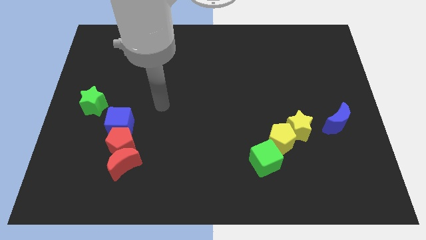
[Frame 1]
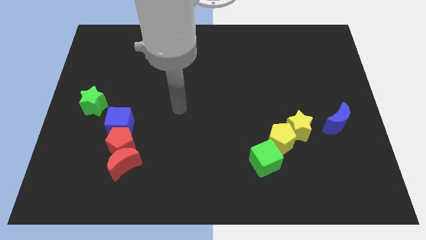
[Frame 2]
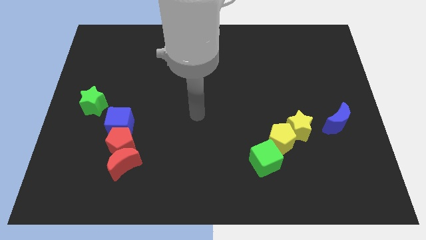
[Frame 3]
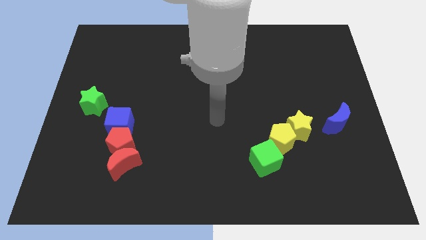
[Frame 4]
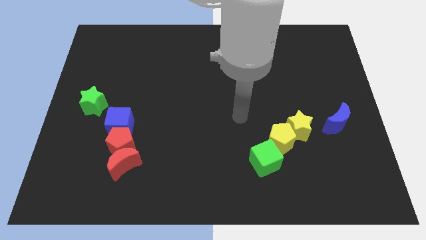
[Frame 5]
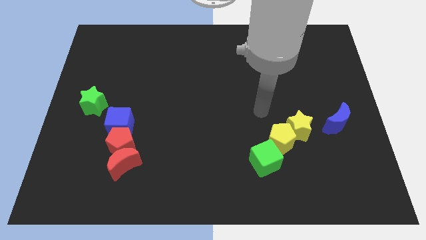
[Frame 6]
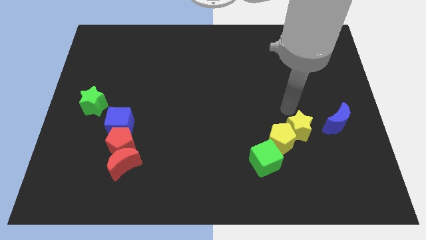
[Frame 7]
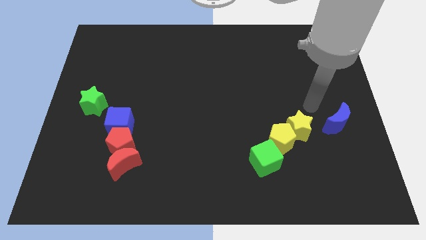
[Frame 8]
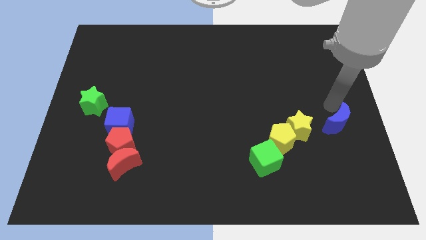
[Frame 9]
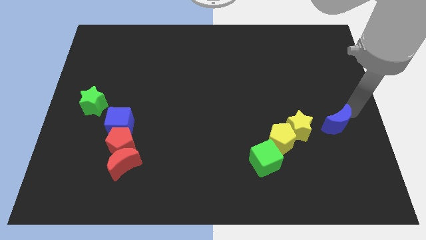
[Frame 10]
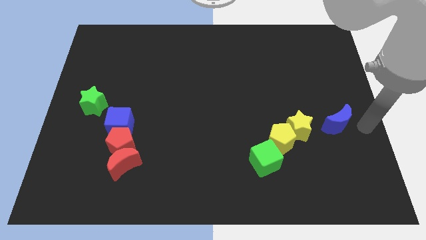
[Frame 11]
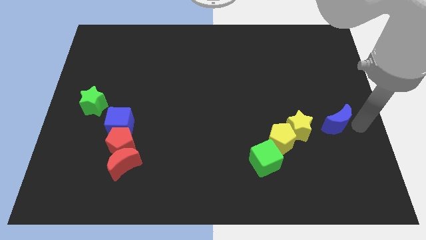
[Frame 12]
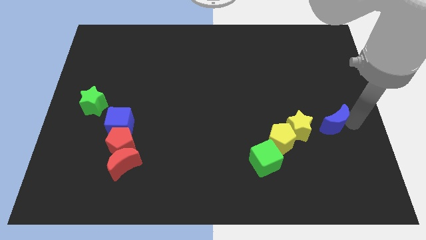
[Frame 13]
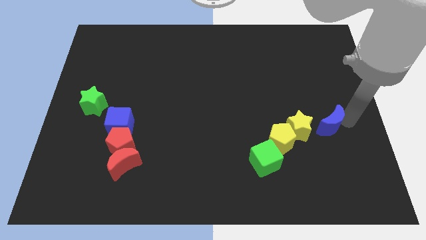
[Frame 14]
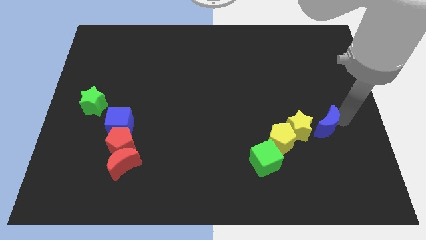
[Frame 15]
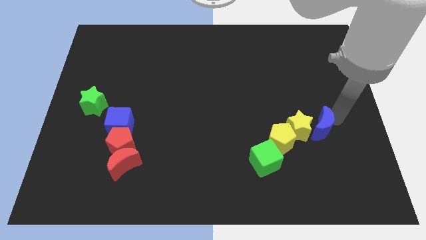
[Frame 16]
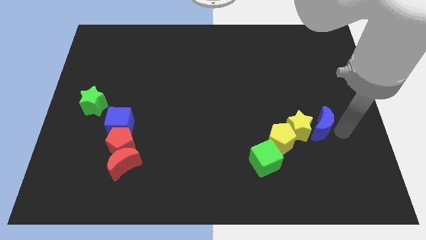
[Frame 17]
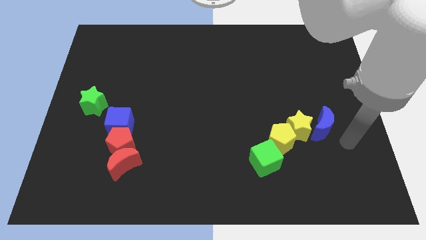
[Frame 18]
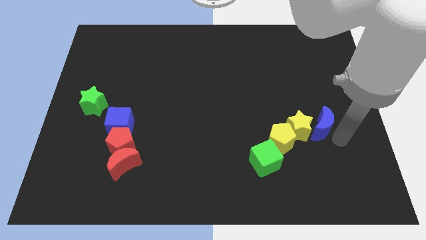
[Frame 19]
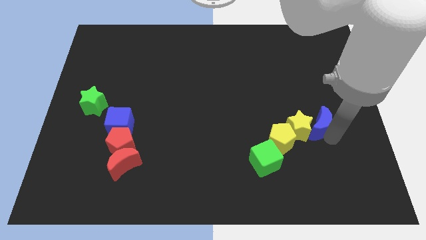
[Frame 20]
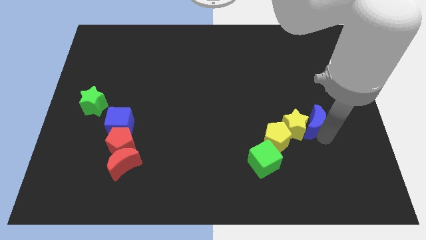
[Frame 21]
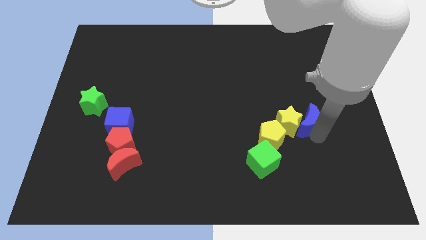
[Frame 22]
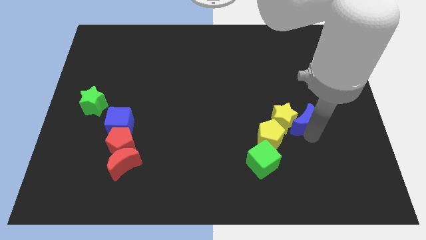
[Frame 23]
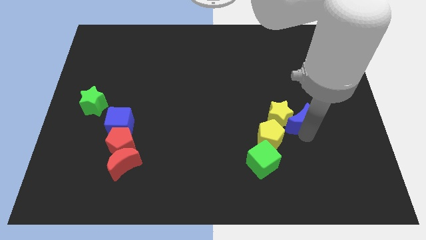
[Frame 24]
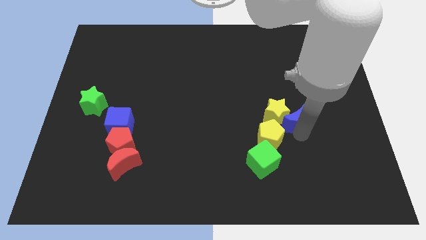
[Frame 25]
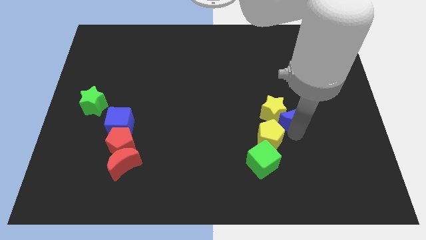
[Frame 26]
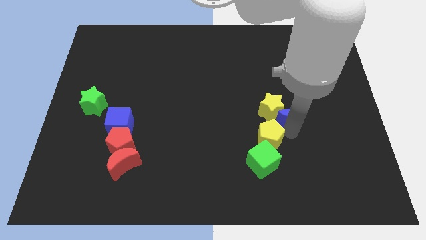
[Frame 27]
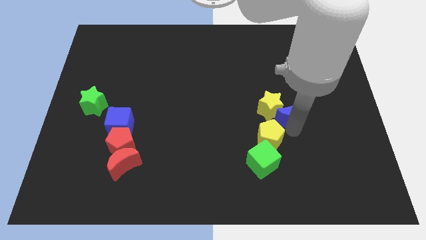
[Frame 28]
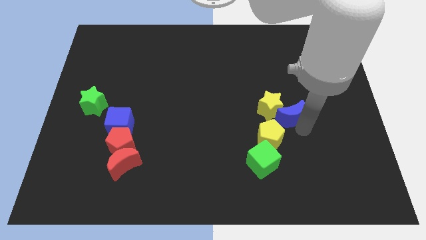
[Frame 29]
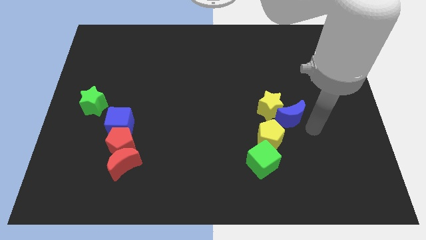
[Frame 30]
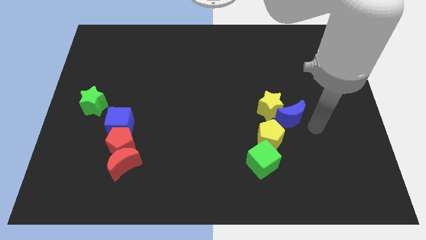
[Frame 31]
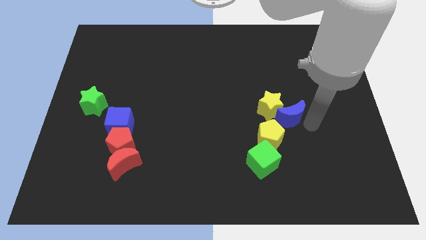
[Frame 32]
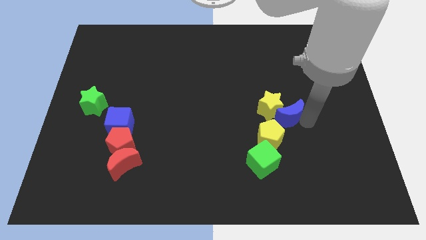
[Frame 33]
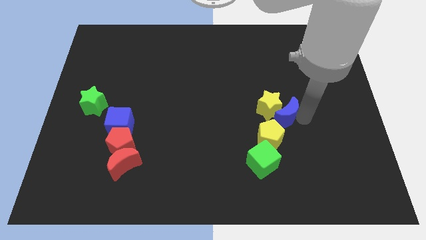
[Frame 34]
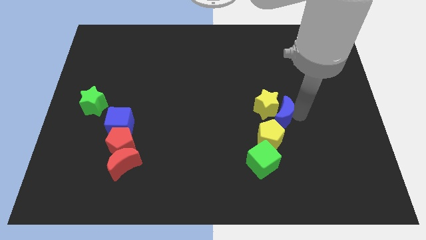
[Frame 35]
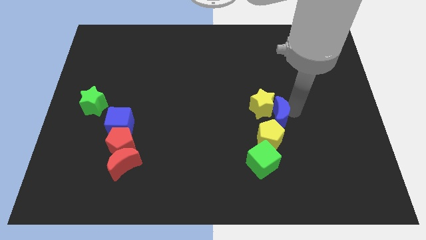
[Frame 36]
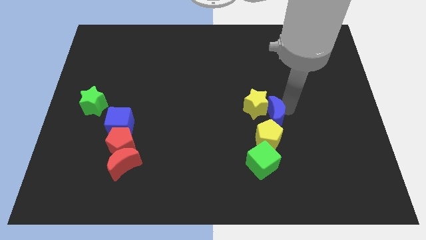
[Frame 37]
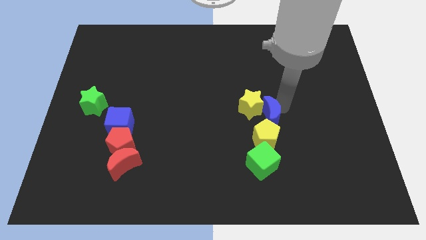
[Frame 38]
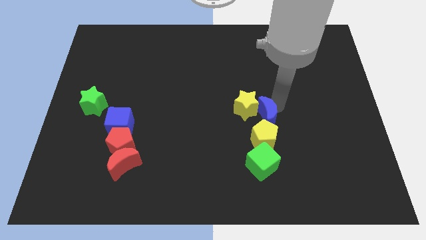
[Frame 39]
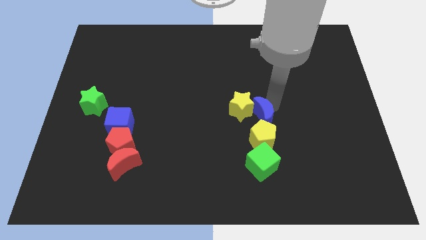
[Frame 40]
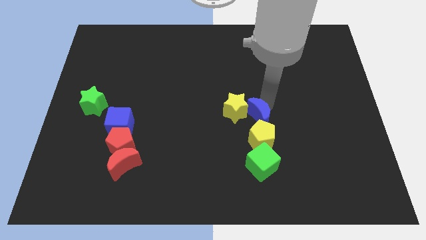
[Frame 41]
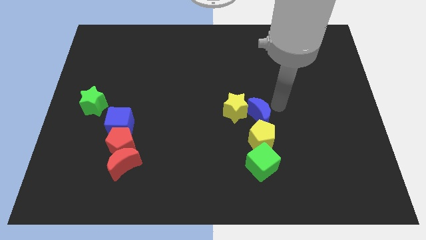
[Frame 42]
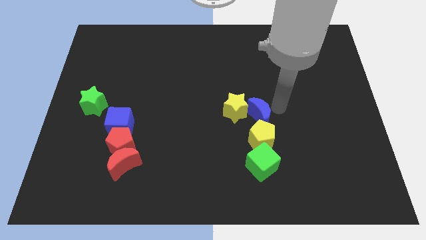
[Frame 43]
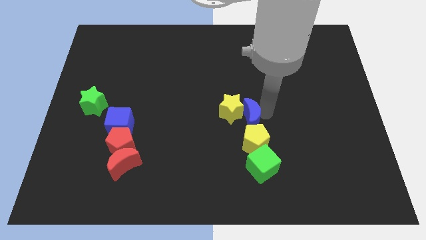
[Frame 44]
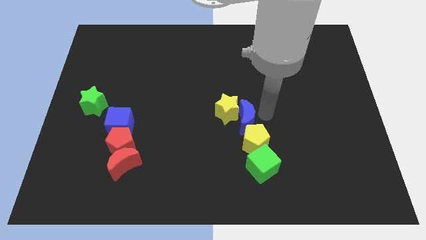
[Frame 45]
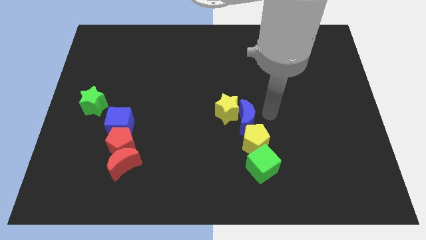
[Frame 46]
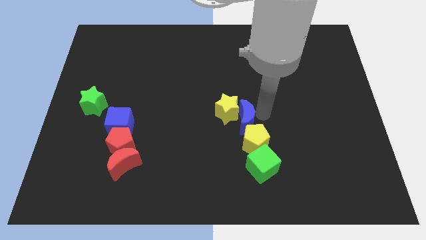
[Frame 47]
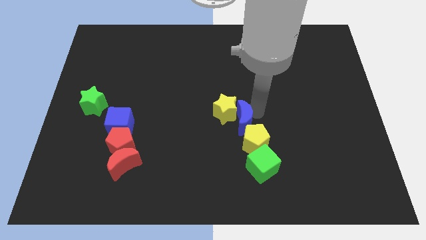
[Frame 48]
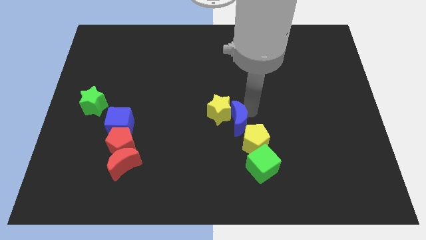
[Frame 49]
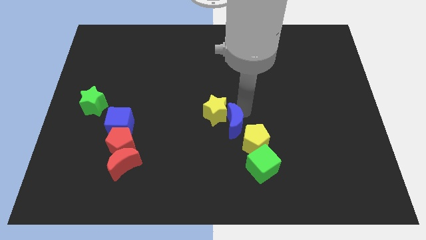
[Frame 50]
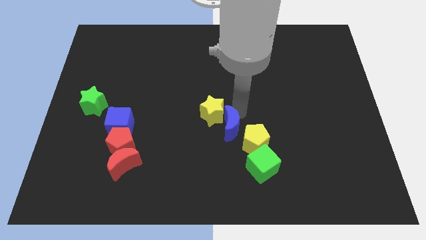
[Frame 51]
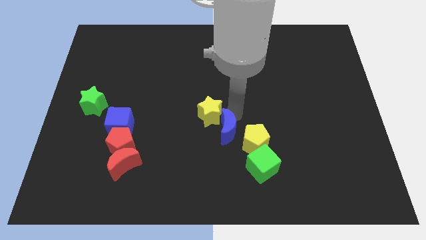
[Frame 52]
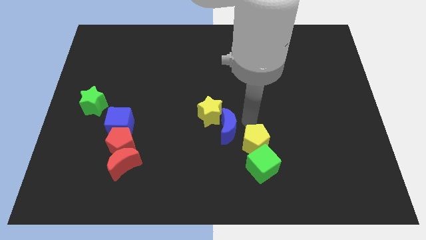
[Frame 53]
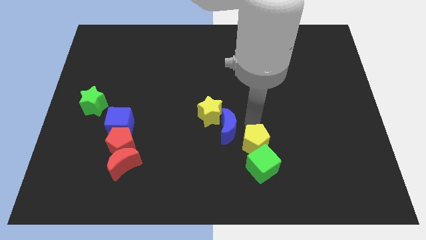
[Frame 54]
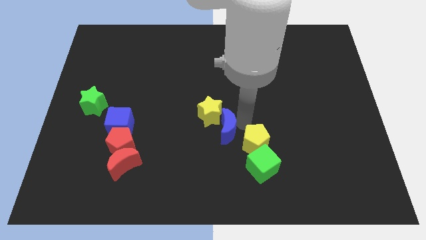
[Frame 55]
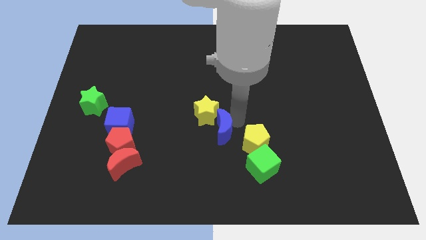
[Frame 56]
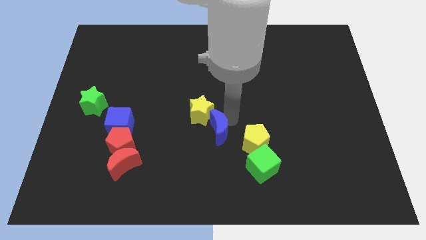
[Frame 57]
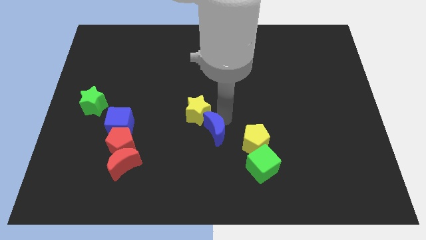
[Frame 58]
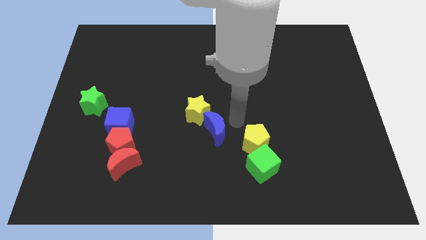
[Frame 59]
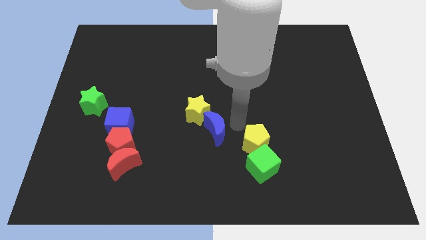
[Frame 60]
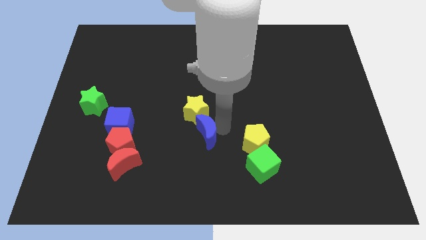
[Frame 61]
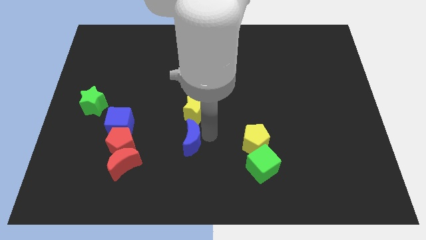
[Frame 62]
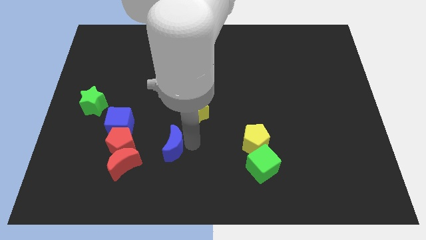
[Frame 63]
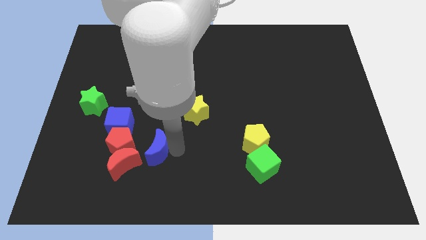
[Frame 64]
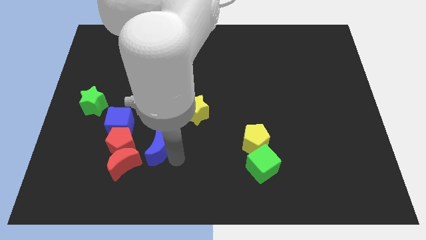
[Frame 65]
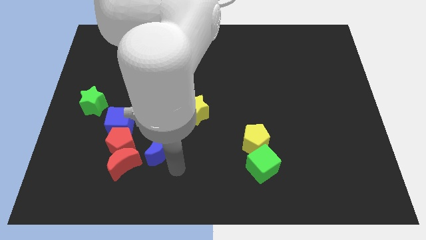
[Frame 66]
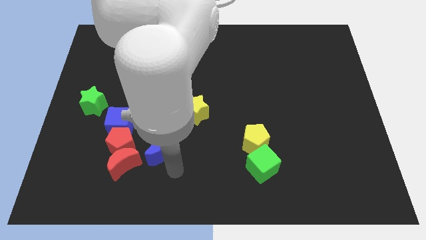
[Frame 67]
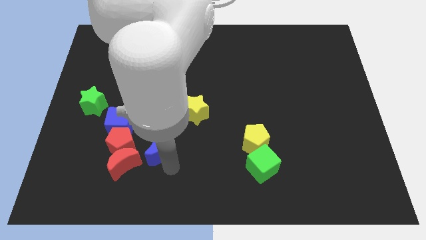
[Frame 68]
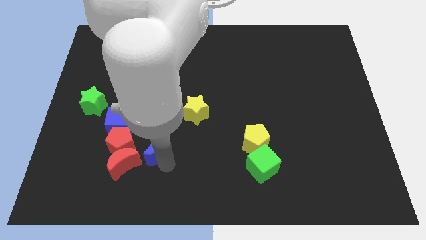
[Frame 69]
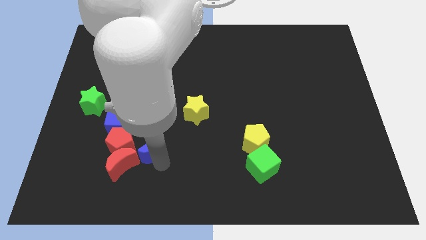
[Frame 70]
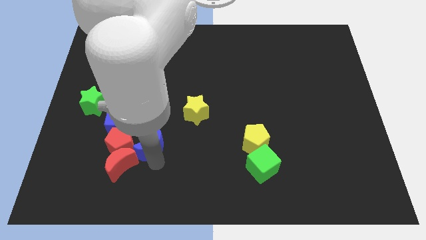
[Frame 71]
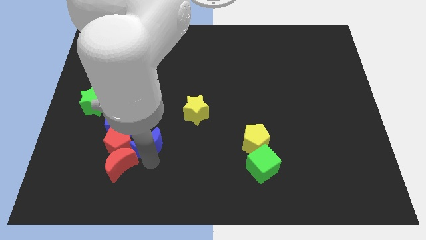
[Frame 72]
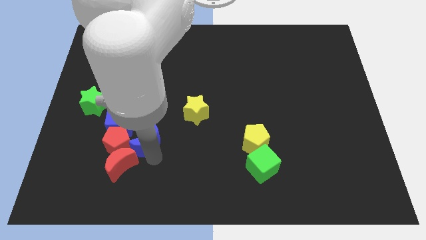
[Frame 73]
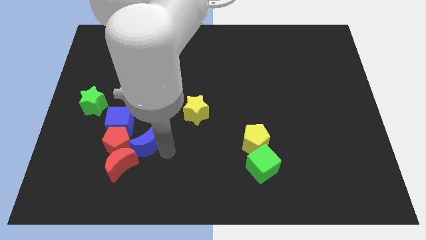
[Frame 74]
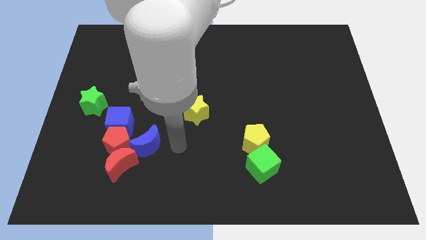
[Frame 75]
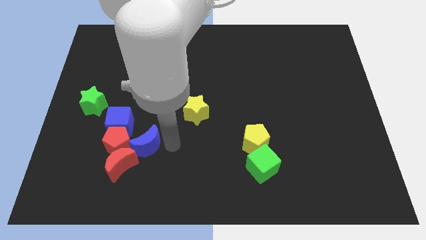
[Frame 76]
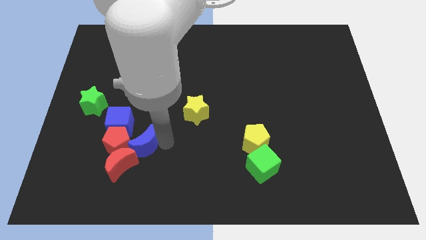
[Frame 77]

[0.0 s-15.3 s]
push the blue moon close to the red pentagon

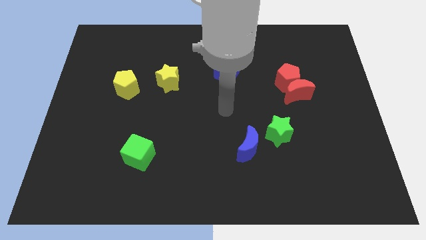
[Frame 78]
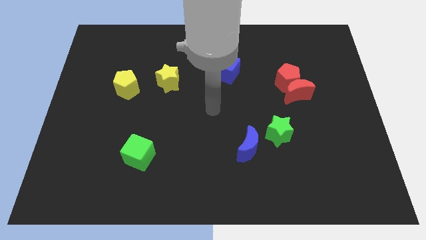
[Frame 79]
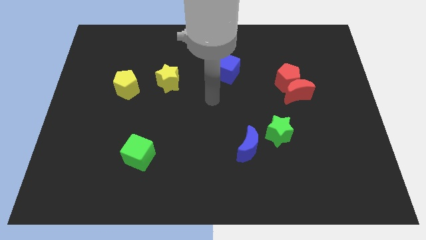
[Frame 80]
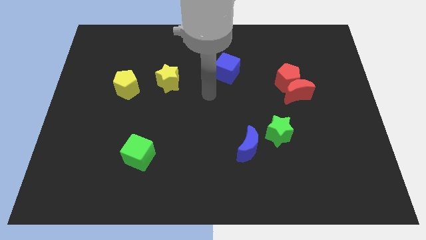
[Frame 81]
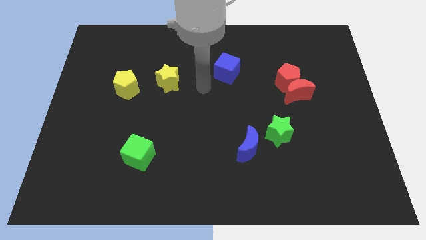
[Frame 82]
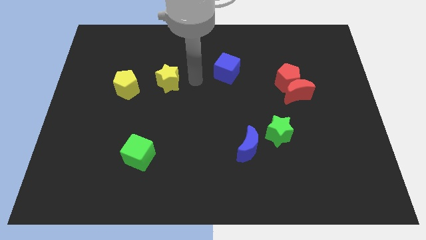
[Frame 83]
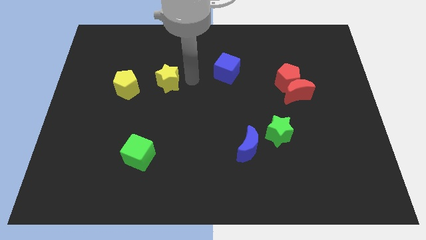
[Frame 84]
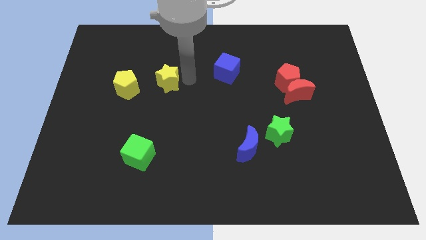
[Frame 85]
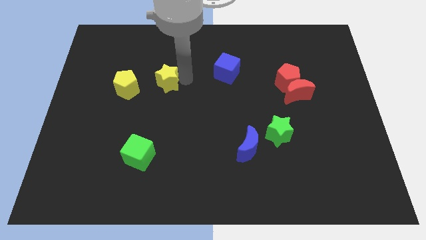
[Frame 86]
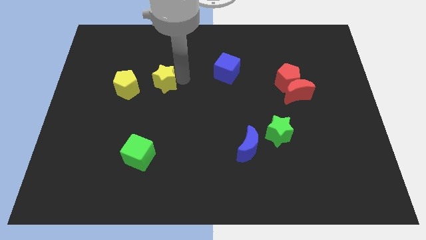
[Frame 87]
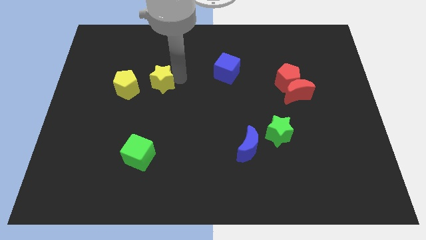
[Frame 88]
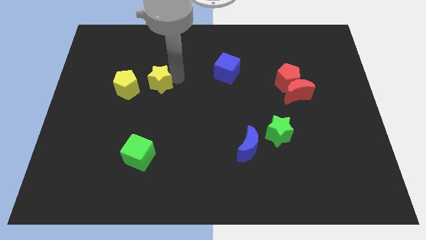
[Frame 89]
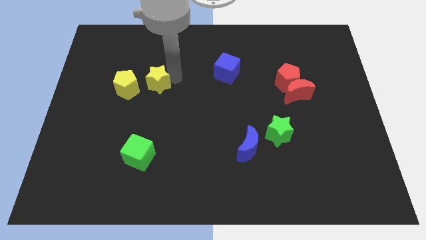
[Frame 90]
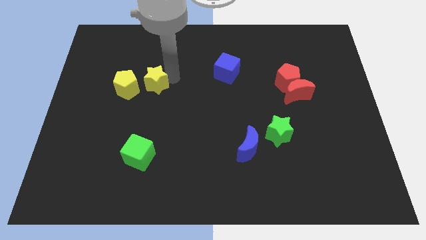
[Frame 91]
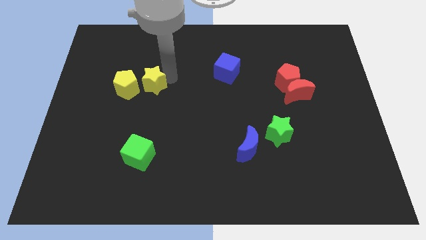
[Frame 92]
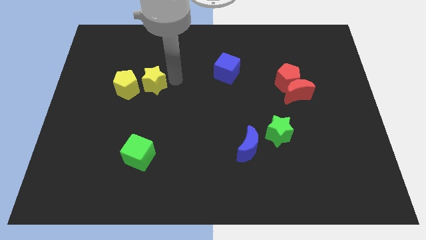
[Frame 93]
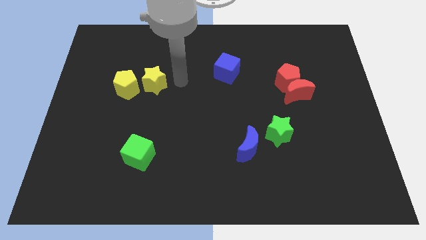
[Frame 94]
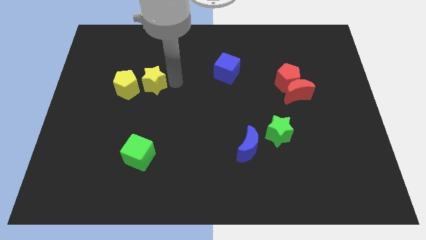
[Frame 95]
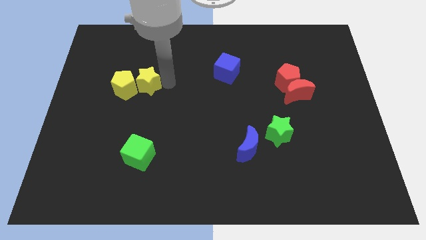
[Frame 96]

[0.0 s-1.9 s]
slide the yellow star next to the yellow pentagon
